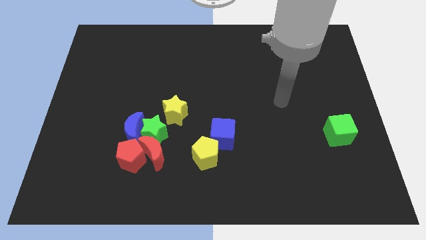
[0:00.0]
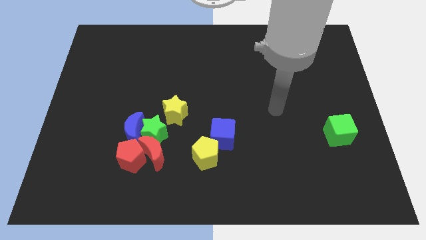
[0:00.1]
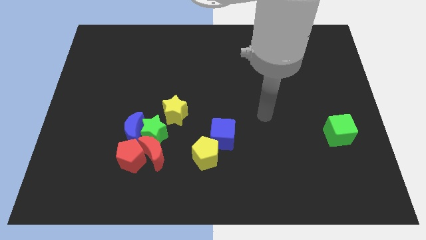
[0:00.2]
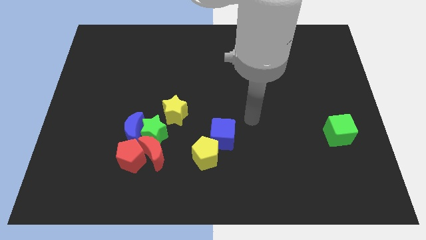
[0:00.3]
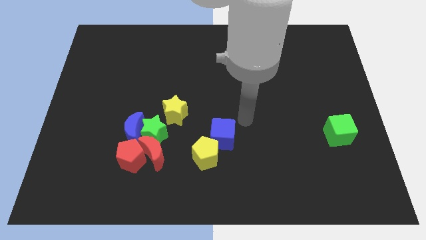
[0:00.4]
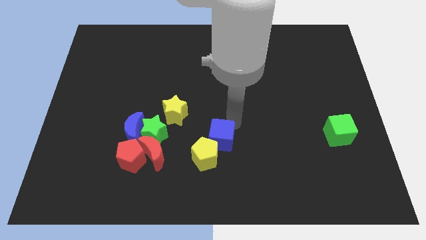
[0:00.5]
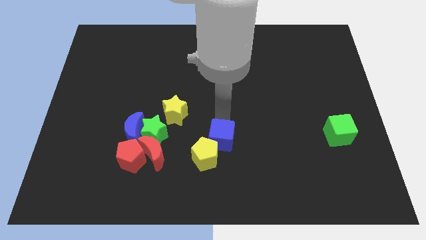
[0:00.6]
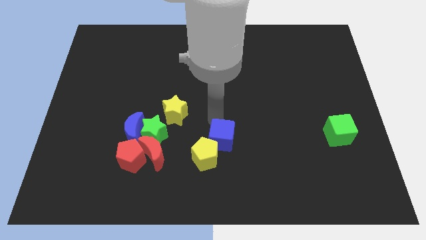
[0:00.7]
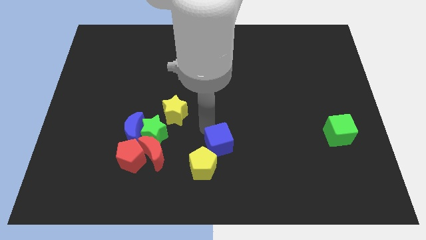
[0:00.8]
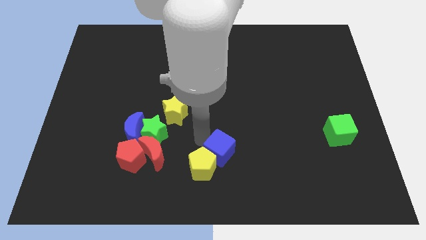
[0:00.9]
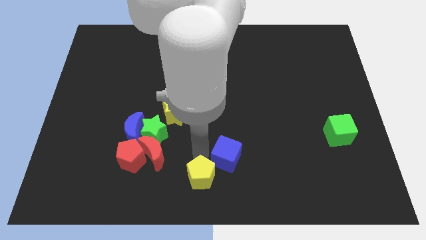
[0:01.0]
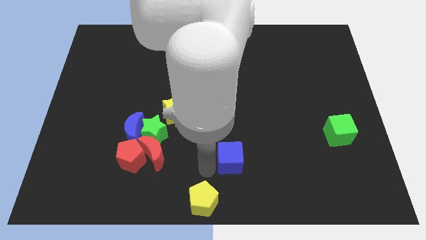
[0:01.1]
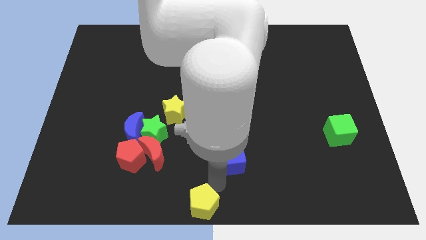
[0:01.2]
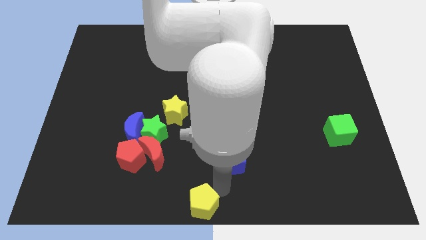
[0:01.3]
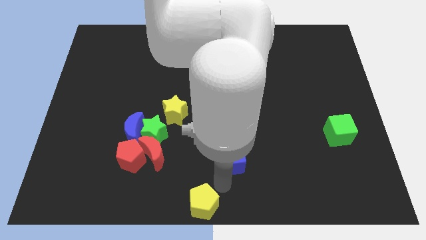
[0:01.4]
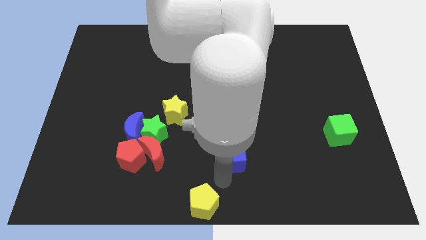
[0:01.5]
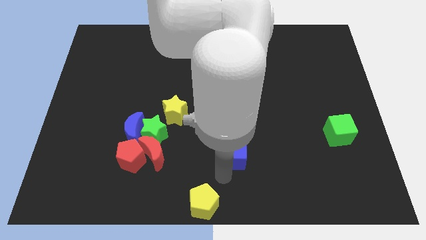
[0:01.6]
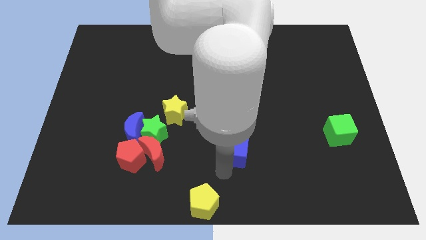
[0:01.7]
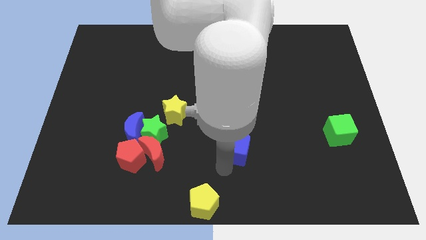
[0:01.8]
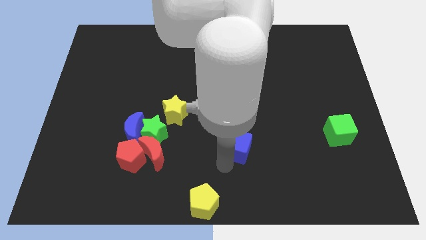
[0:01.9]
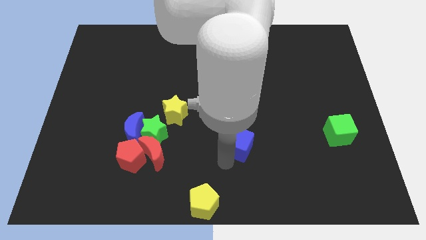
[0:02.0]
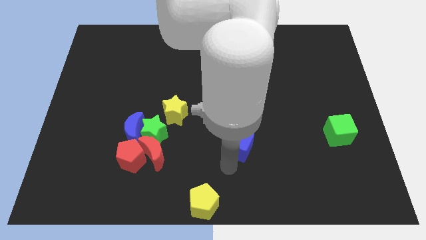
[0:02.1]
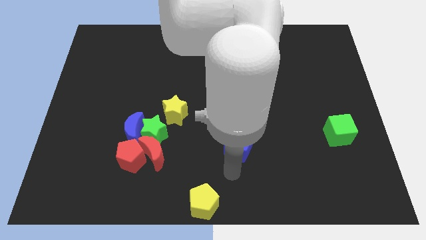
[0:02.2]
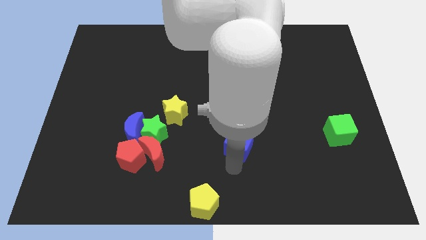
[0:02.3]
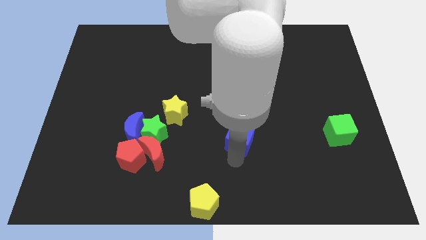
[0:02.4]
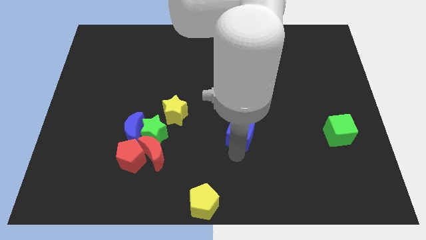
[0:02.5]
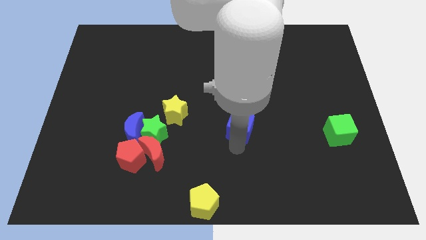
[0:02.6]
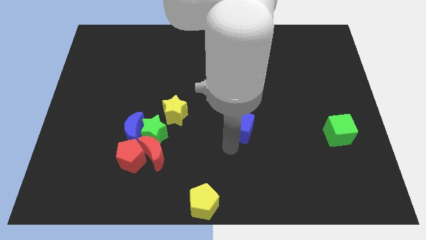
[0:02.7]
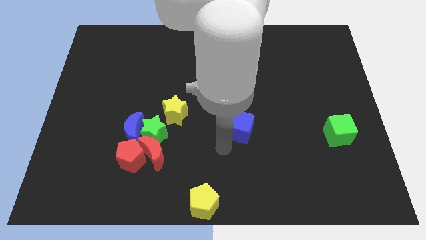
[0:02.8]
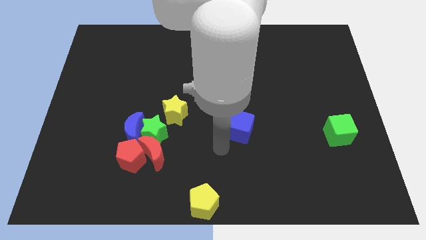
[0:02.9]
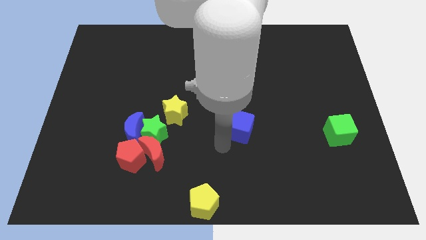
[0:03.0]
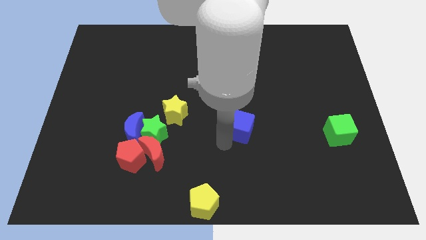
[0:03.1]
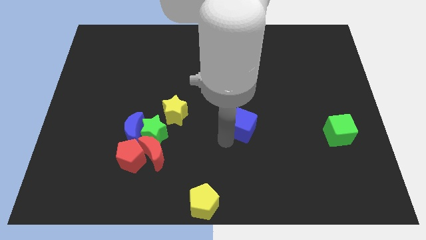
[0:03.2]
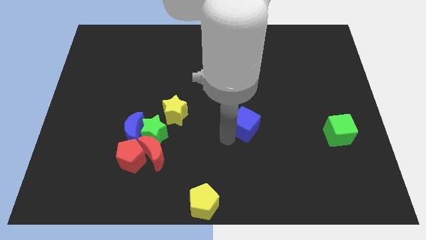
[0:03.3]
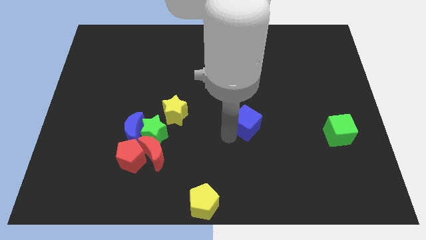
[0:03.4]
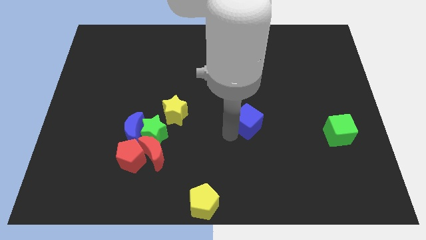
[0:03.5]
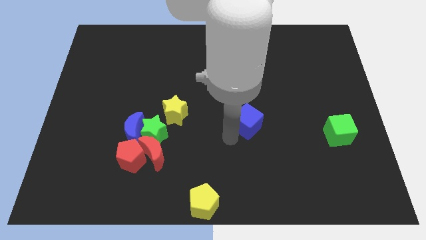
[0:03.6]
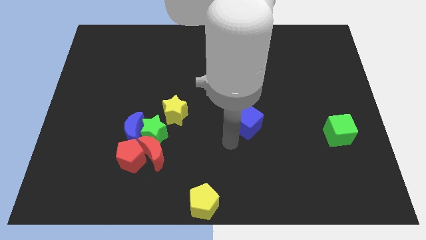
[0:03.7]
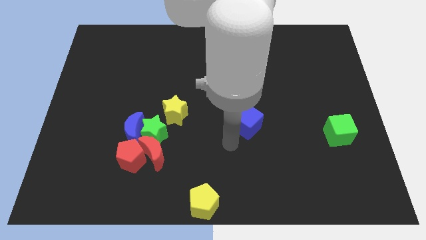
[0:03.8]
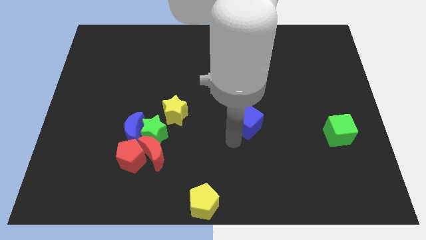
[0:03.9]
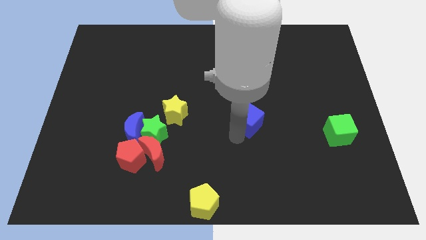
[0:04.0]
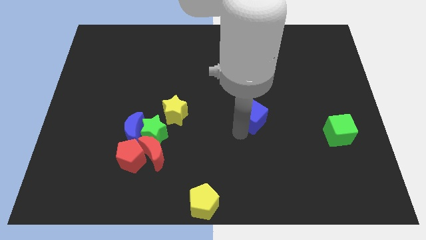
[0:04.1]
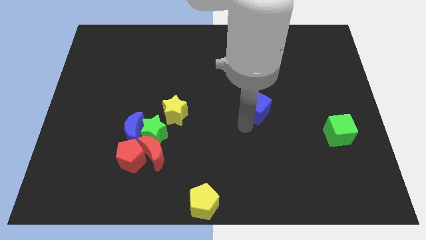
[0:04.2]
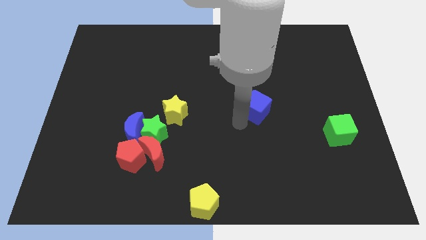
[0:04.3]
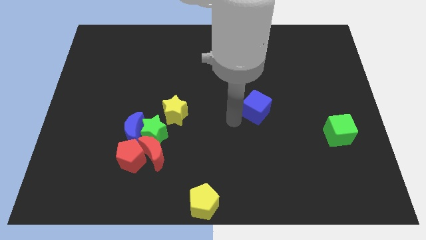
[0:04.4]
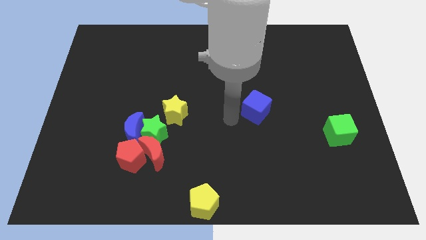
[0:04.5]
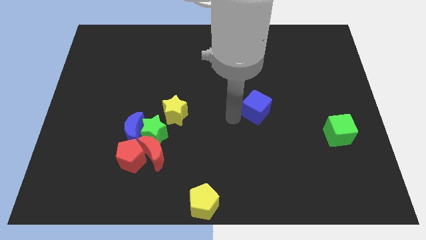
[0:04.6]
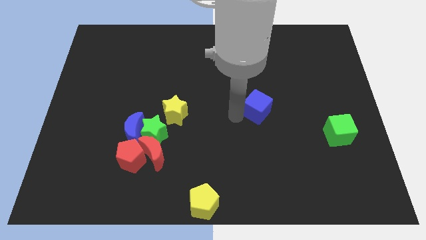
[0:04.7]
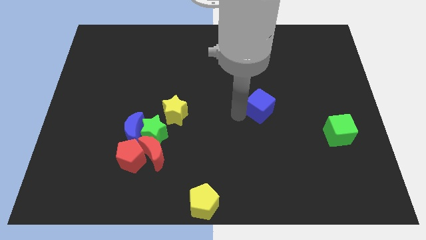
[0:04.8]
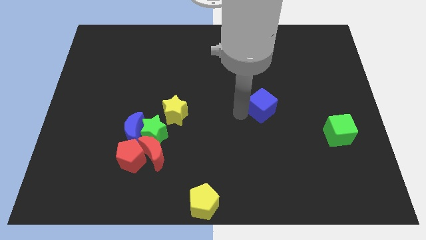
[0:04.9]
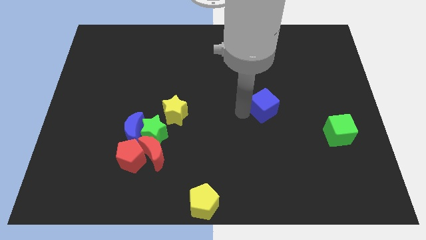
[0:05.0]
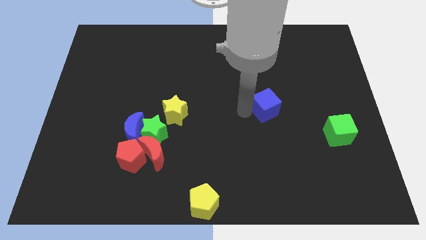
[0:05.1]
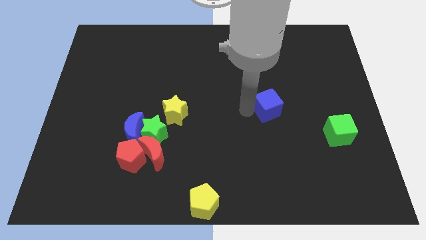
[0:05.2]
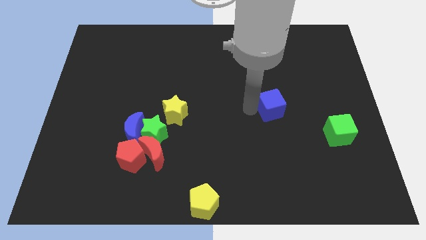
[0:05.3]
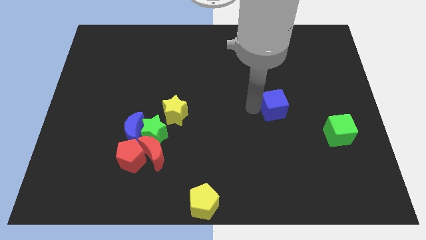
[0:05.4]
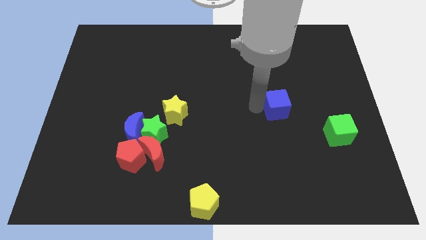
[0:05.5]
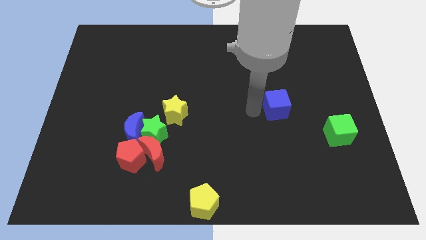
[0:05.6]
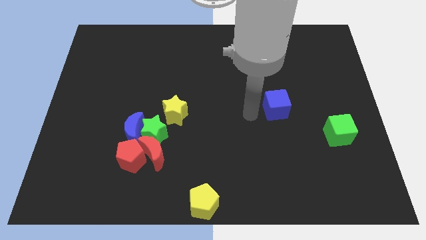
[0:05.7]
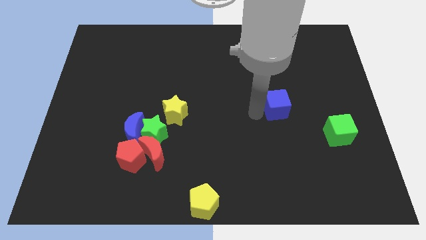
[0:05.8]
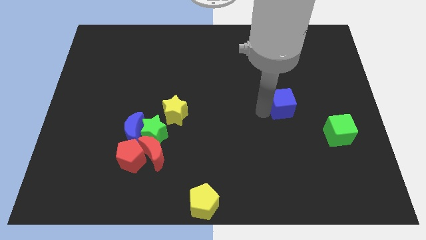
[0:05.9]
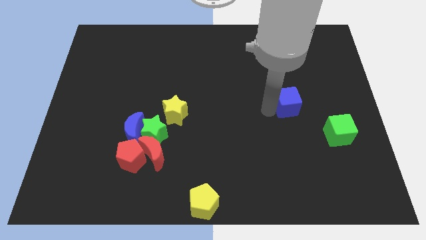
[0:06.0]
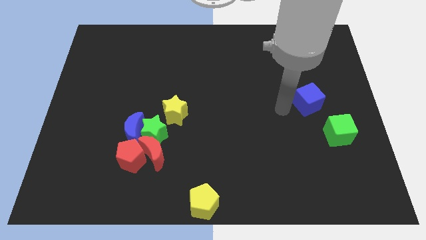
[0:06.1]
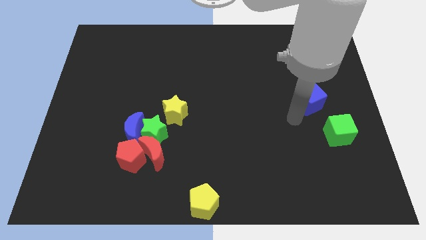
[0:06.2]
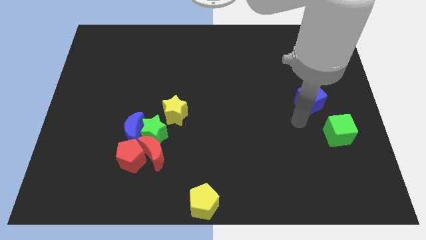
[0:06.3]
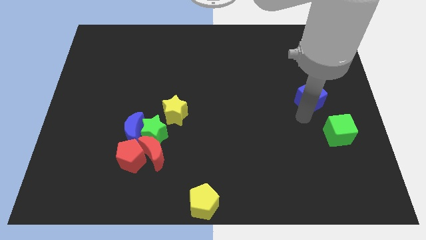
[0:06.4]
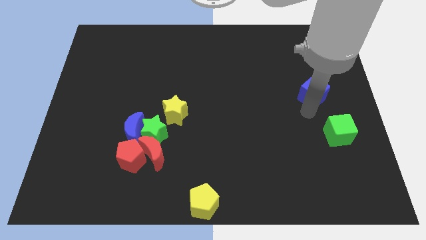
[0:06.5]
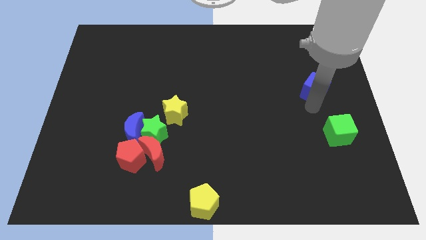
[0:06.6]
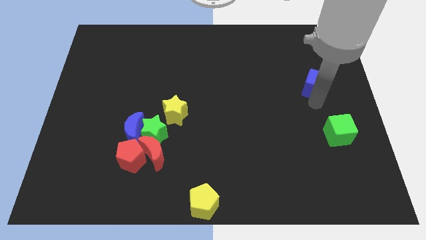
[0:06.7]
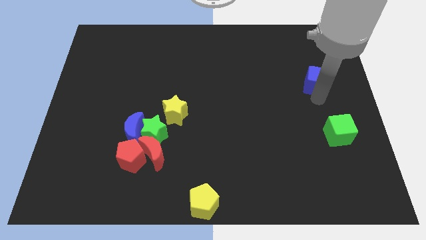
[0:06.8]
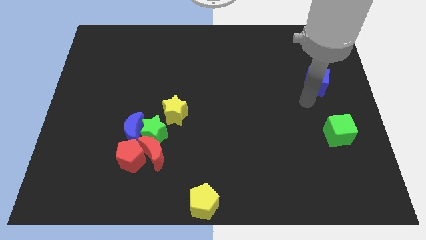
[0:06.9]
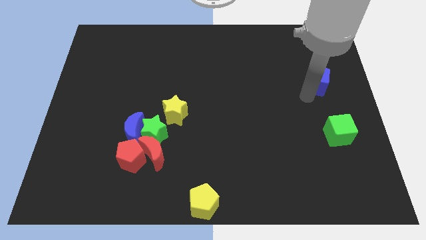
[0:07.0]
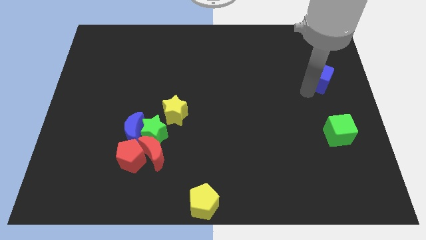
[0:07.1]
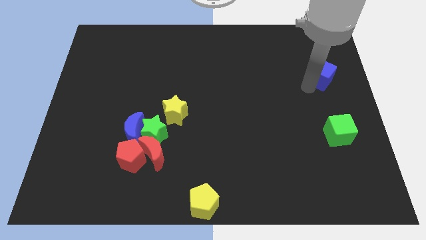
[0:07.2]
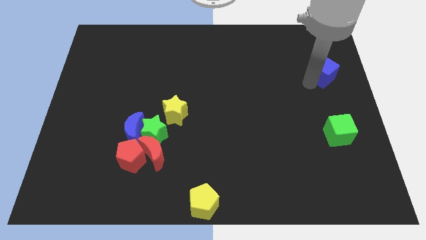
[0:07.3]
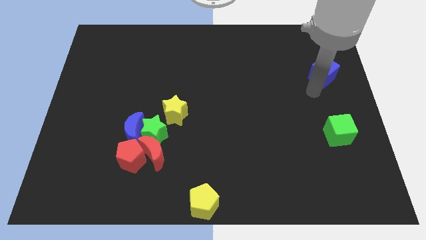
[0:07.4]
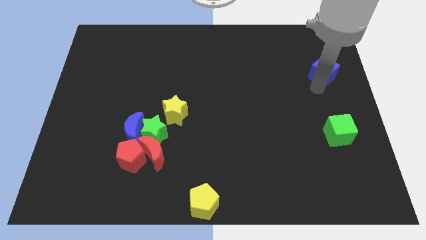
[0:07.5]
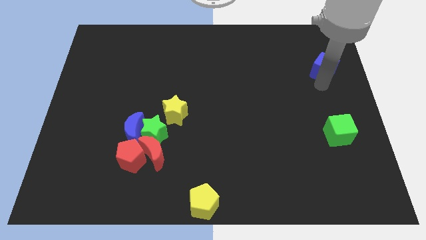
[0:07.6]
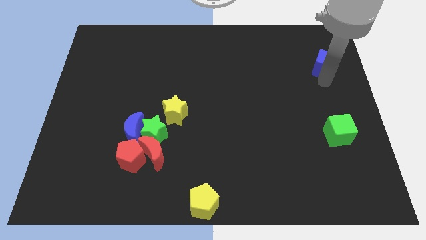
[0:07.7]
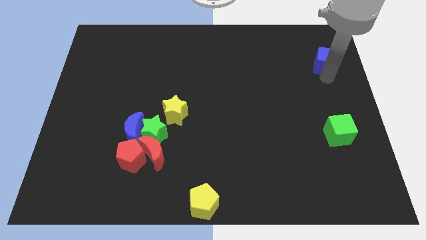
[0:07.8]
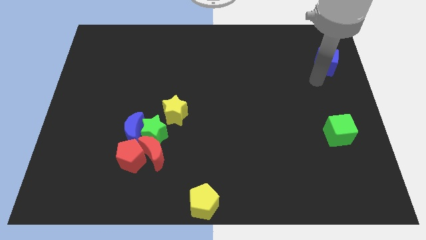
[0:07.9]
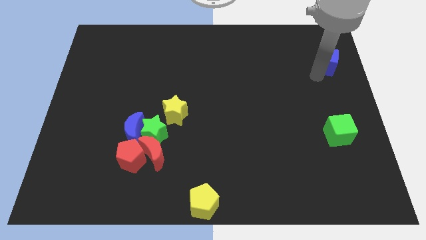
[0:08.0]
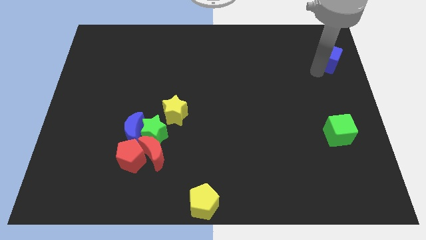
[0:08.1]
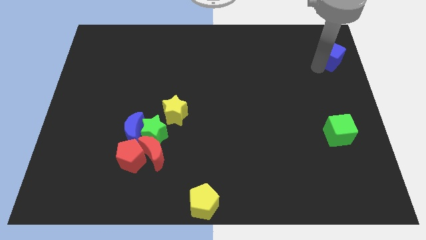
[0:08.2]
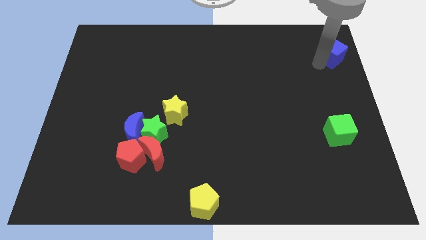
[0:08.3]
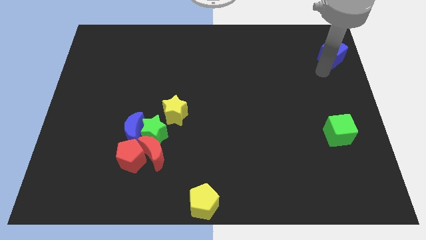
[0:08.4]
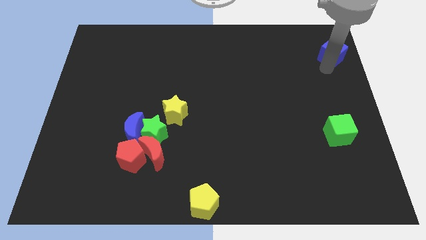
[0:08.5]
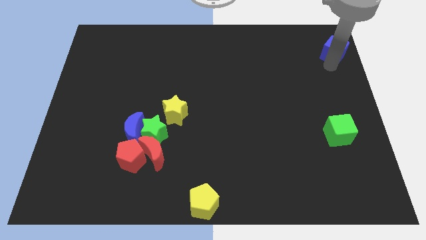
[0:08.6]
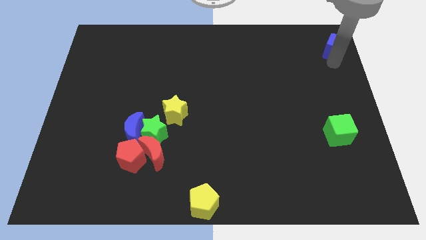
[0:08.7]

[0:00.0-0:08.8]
slide the blue cube to the top right
